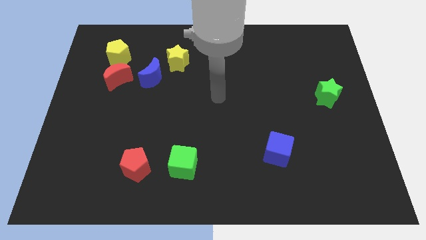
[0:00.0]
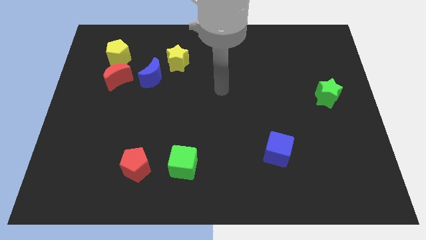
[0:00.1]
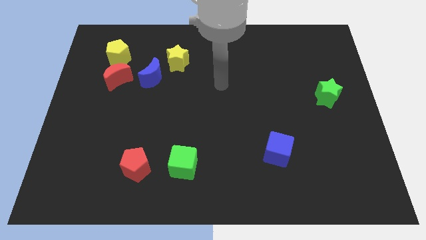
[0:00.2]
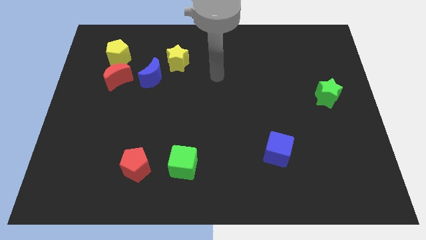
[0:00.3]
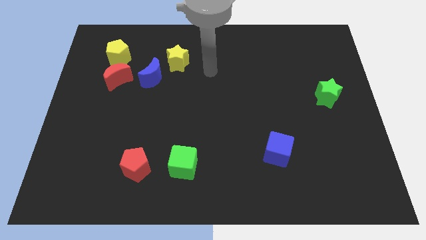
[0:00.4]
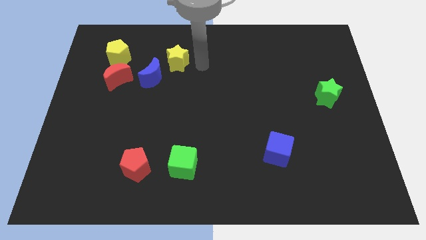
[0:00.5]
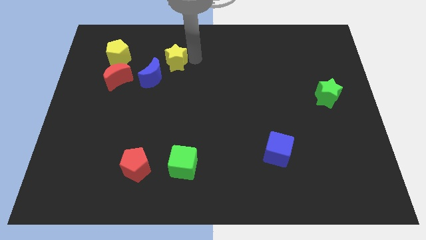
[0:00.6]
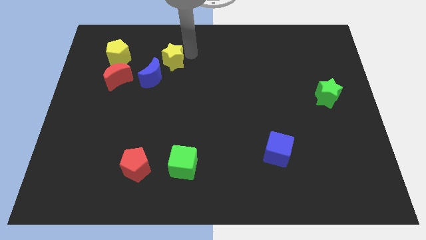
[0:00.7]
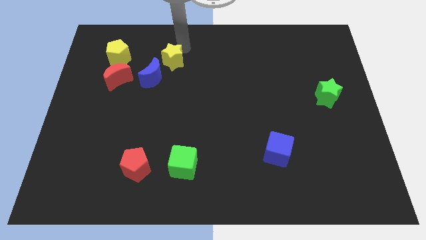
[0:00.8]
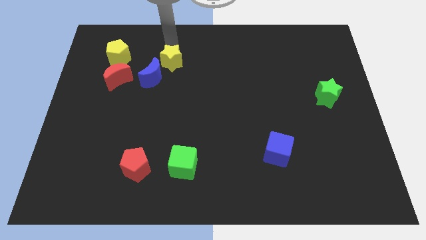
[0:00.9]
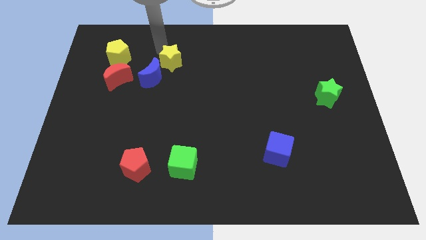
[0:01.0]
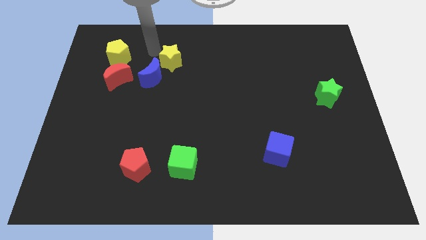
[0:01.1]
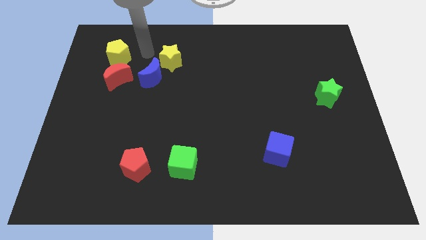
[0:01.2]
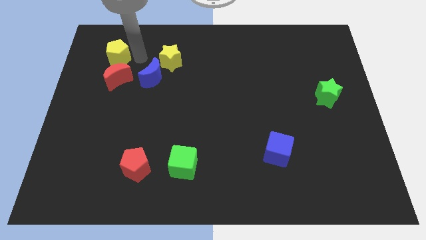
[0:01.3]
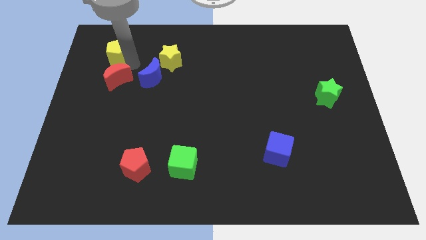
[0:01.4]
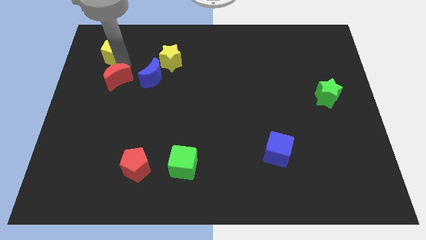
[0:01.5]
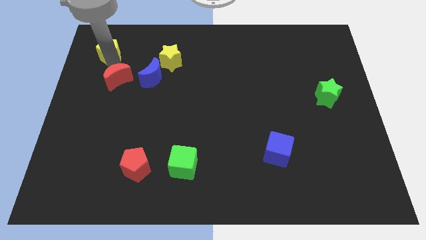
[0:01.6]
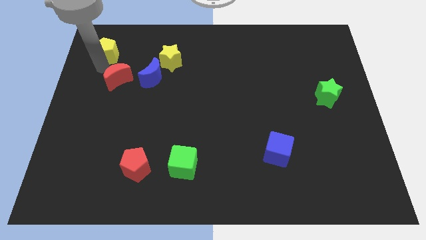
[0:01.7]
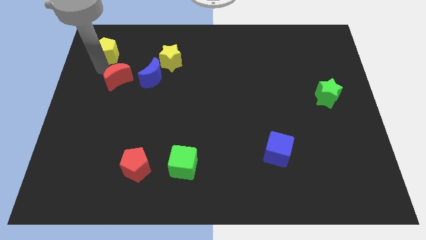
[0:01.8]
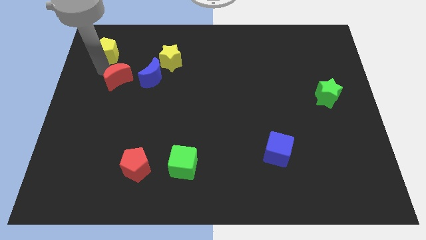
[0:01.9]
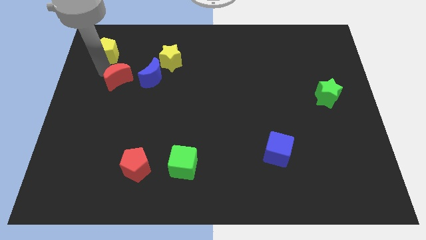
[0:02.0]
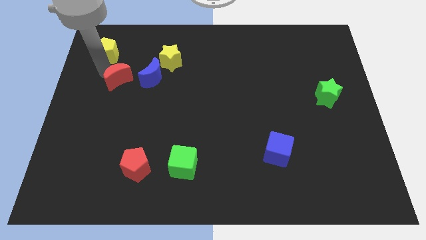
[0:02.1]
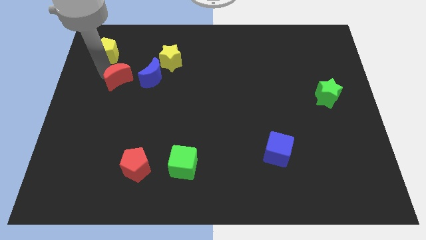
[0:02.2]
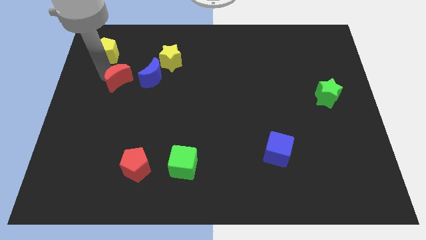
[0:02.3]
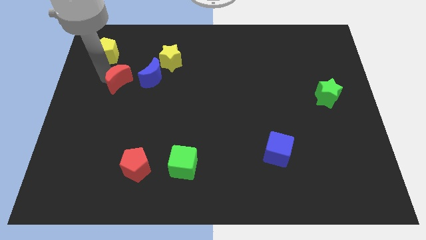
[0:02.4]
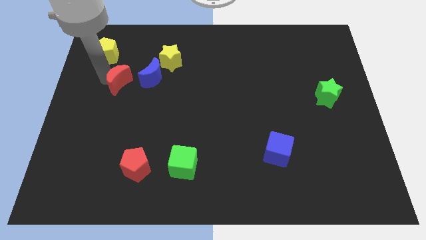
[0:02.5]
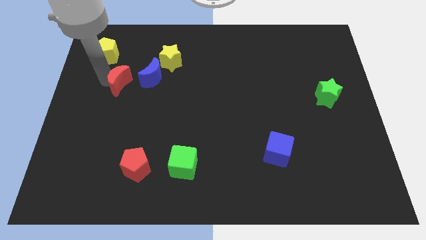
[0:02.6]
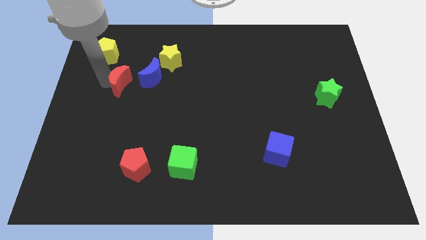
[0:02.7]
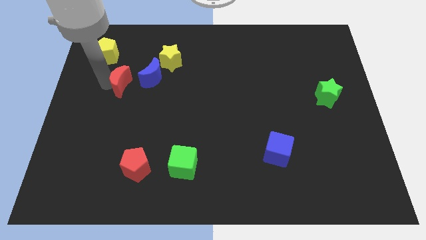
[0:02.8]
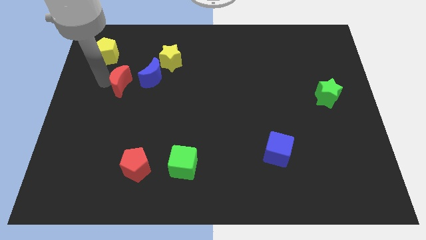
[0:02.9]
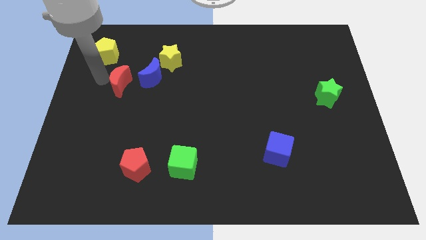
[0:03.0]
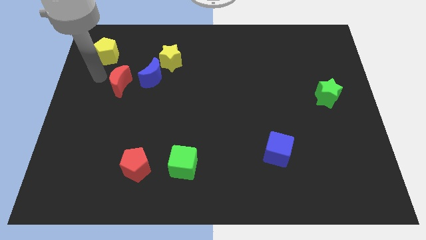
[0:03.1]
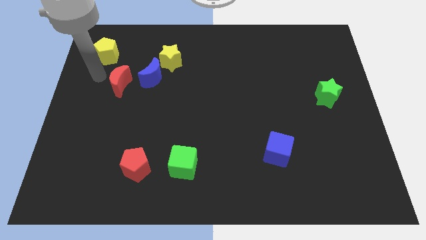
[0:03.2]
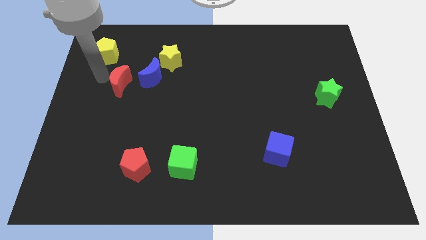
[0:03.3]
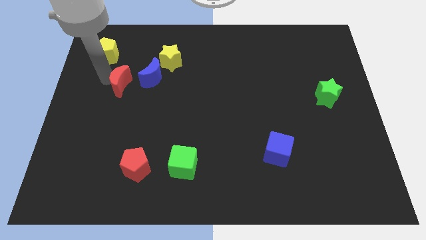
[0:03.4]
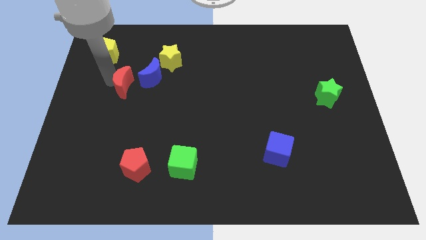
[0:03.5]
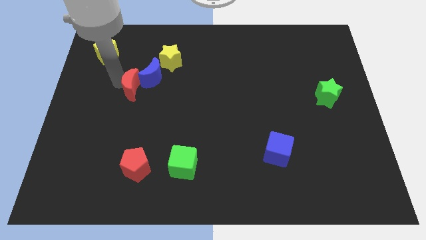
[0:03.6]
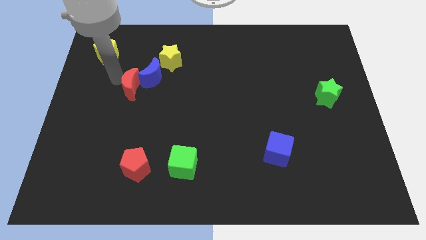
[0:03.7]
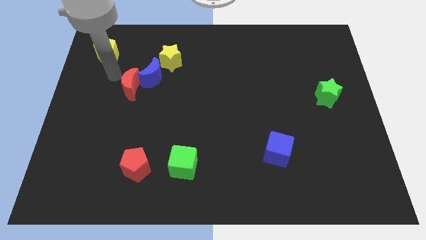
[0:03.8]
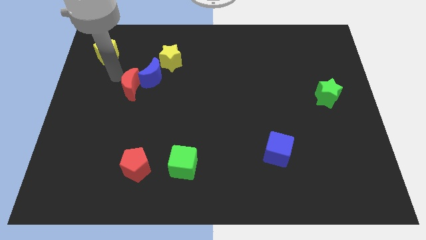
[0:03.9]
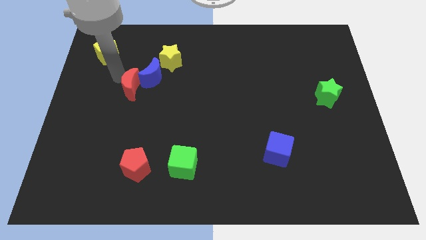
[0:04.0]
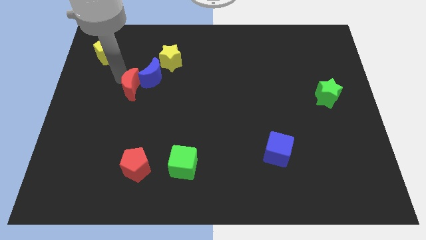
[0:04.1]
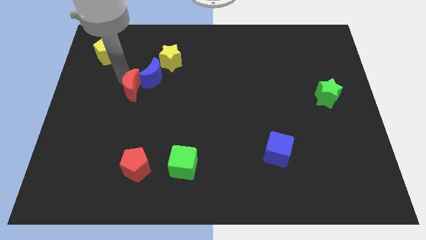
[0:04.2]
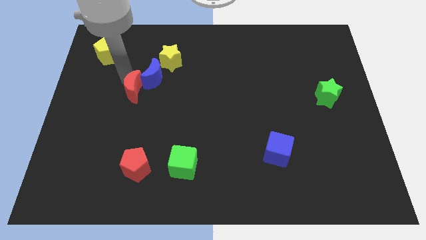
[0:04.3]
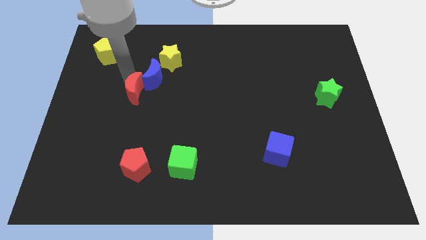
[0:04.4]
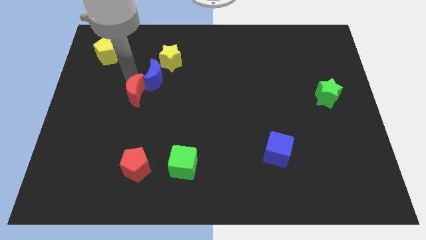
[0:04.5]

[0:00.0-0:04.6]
slide the red moon somewhat diagonally downwards and to the right

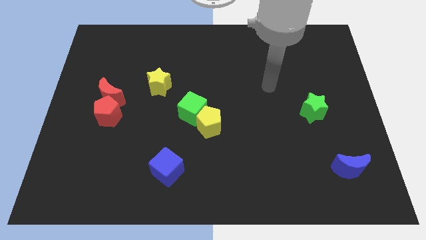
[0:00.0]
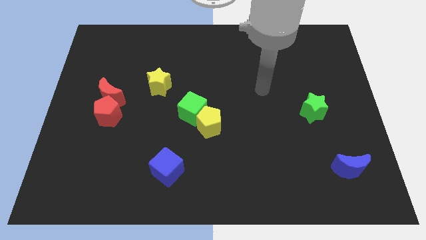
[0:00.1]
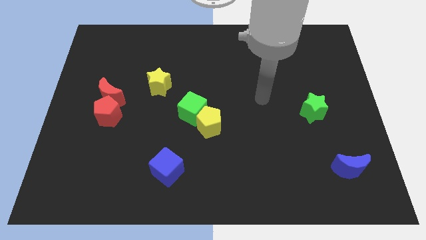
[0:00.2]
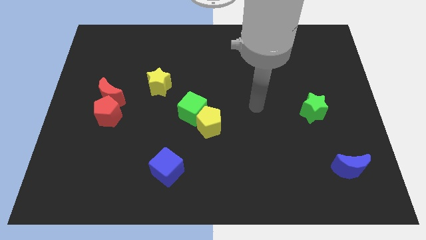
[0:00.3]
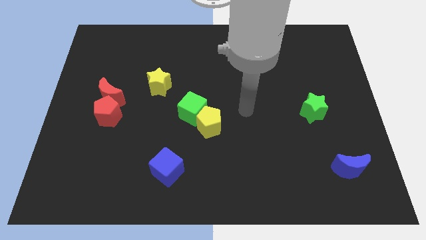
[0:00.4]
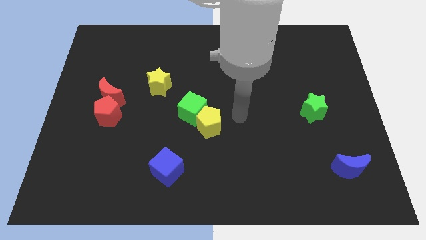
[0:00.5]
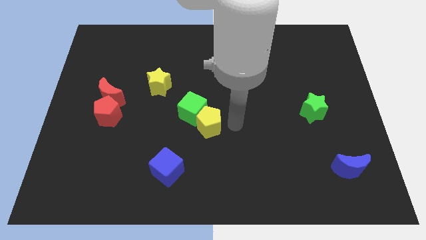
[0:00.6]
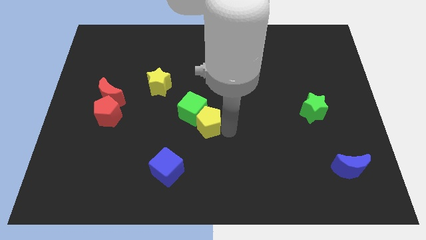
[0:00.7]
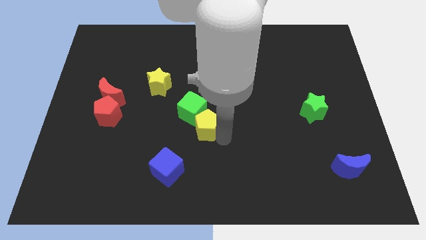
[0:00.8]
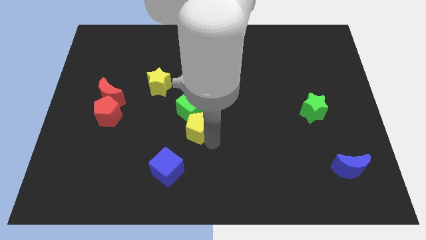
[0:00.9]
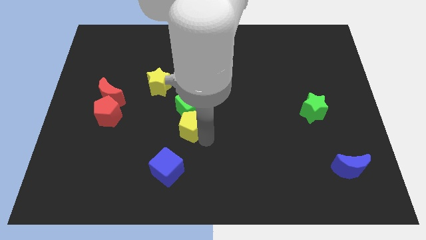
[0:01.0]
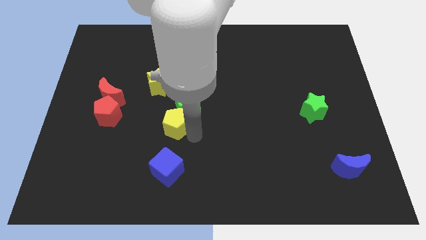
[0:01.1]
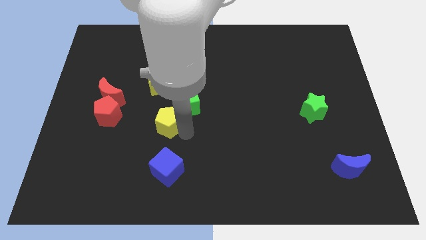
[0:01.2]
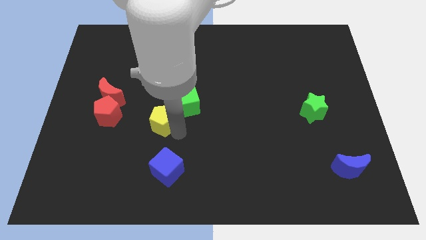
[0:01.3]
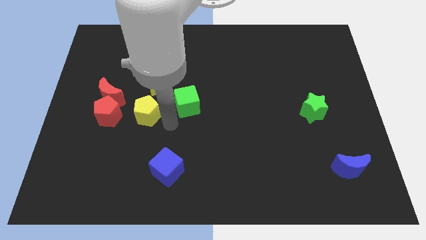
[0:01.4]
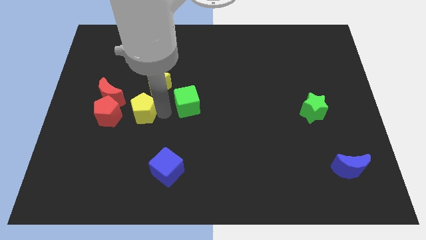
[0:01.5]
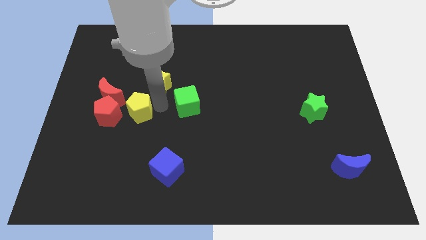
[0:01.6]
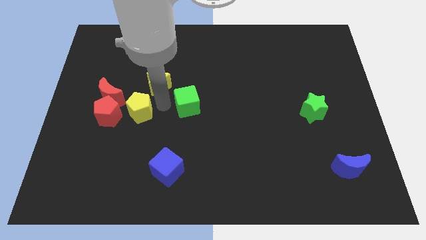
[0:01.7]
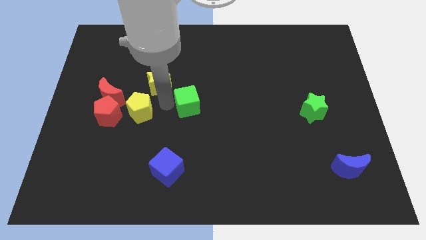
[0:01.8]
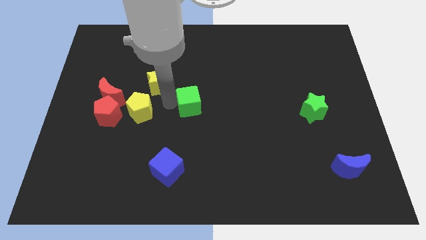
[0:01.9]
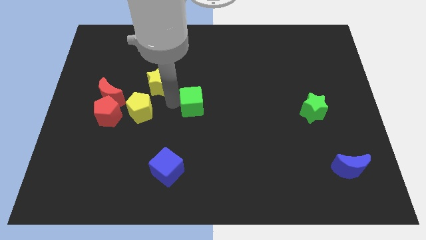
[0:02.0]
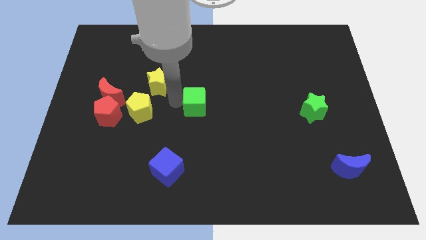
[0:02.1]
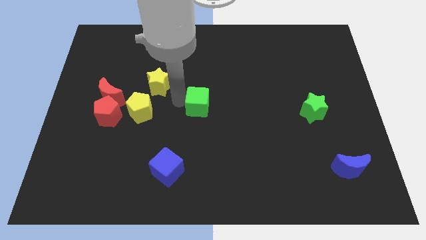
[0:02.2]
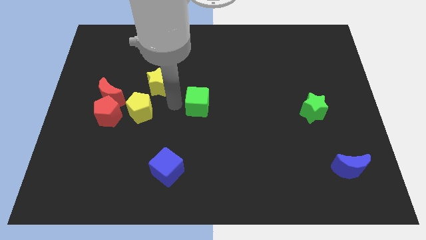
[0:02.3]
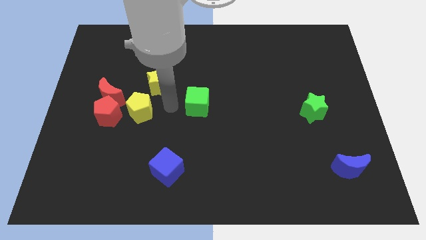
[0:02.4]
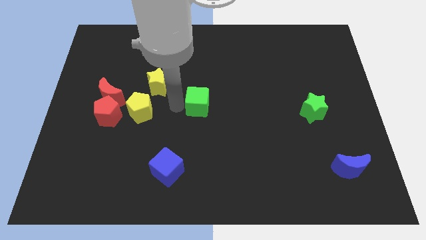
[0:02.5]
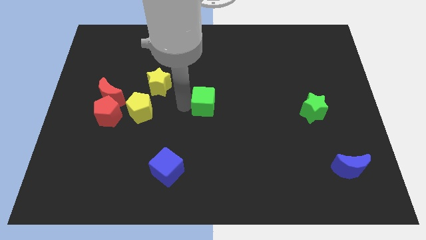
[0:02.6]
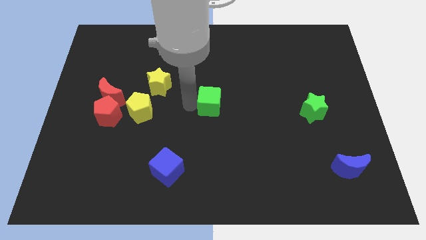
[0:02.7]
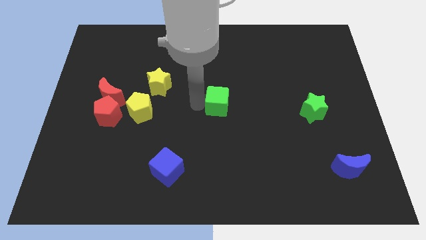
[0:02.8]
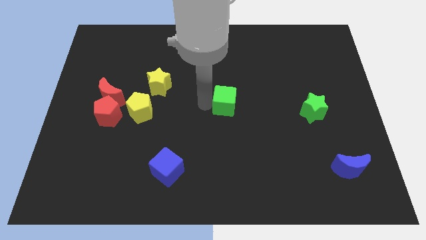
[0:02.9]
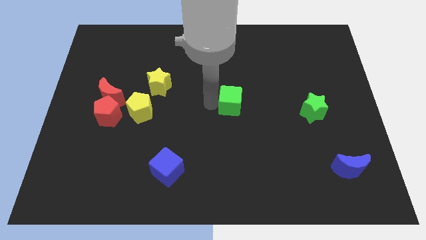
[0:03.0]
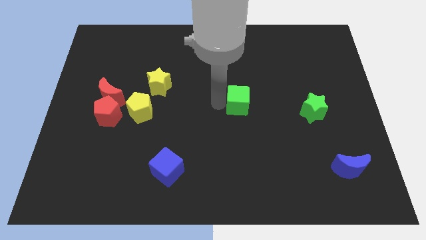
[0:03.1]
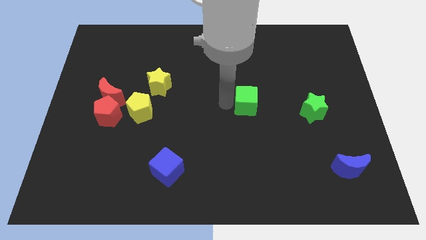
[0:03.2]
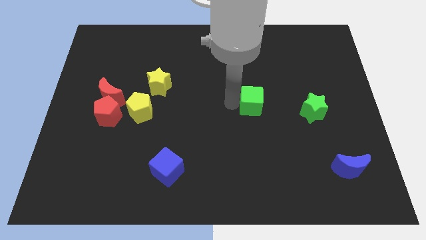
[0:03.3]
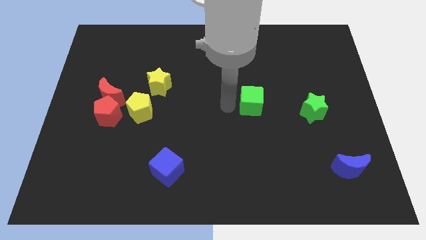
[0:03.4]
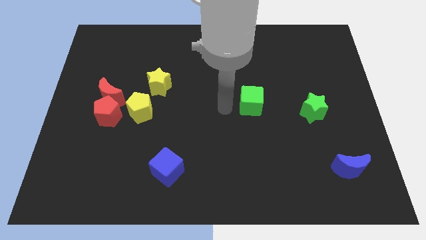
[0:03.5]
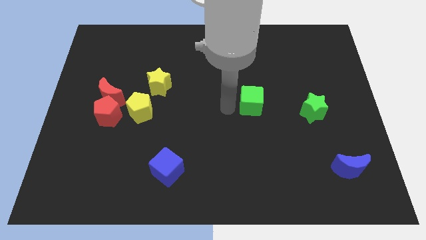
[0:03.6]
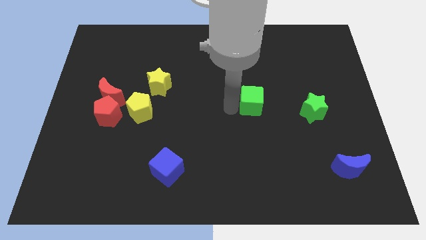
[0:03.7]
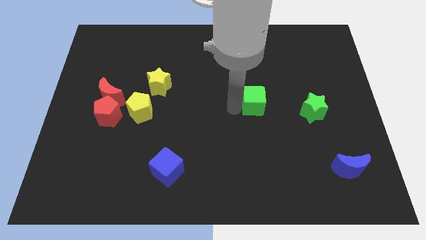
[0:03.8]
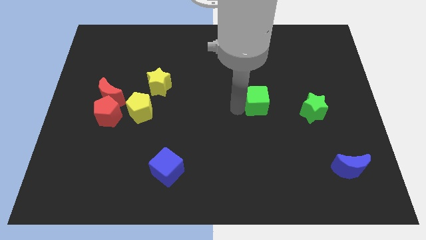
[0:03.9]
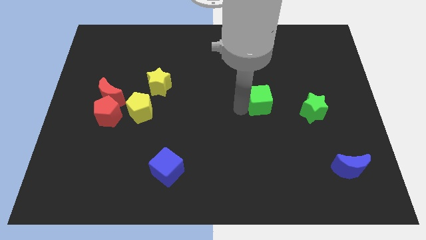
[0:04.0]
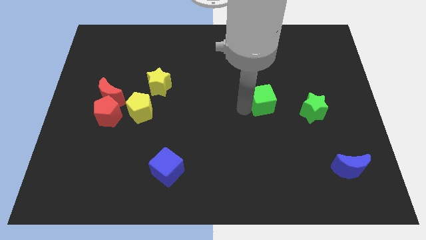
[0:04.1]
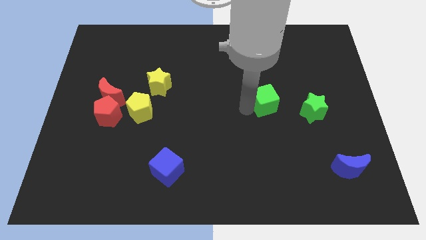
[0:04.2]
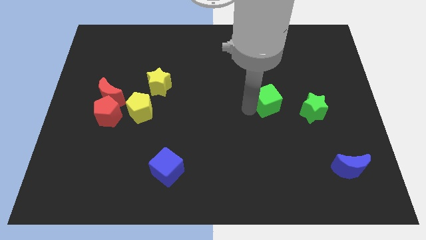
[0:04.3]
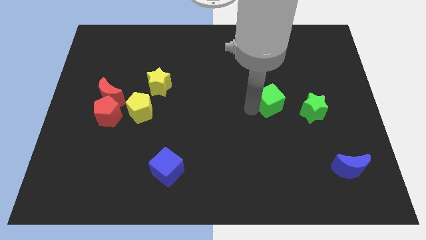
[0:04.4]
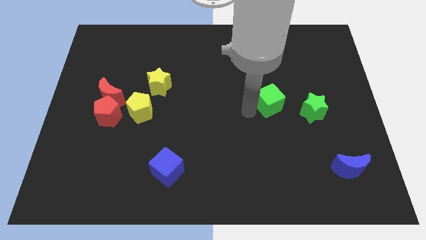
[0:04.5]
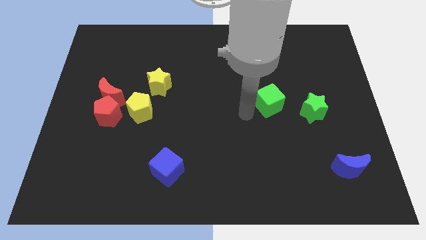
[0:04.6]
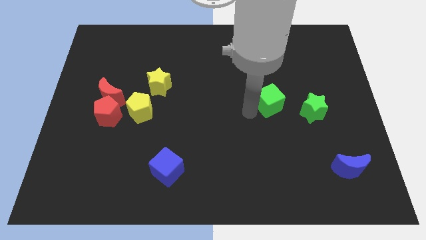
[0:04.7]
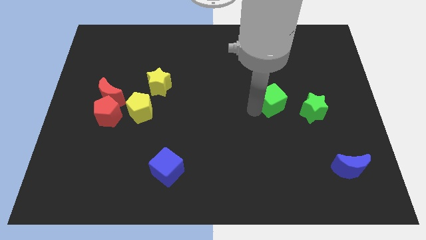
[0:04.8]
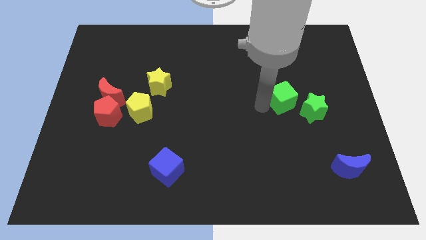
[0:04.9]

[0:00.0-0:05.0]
push the green cube right
